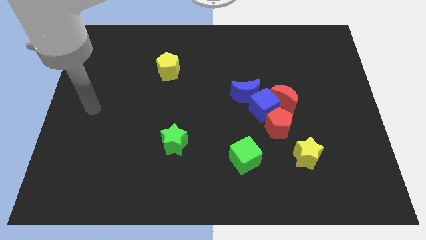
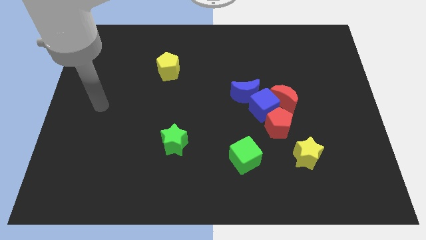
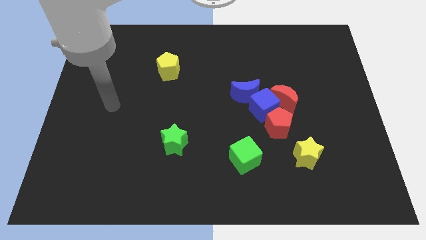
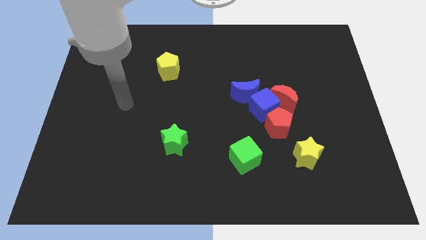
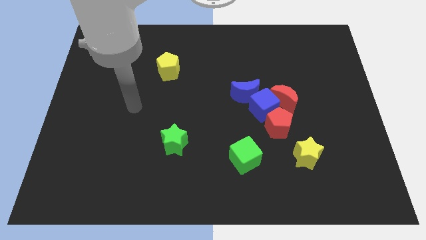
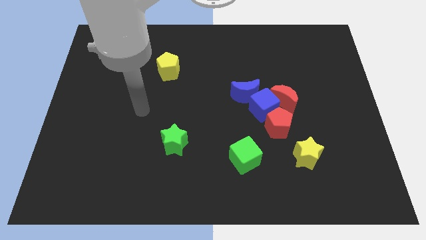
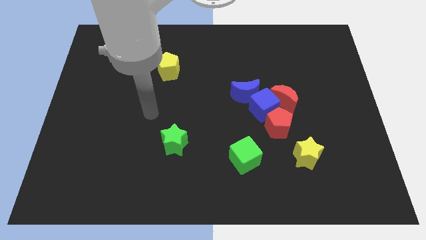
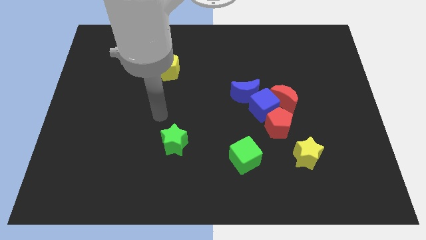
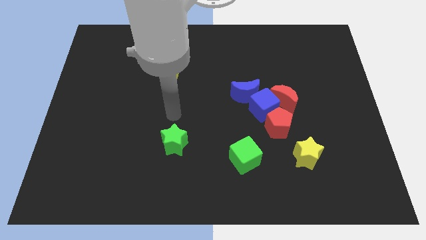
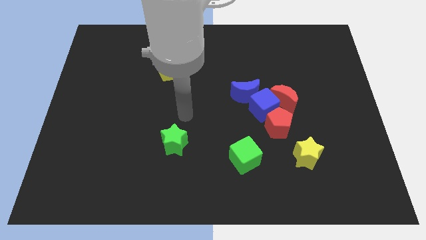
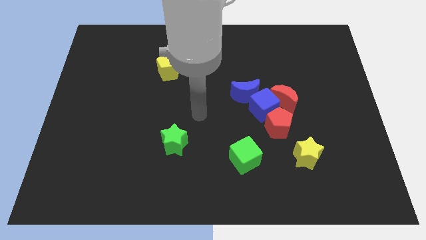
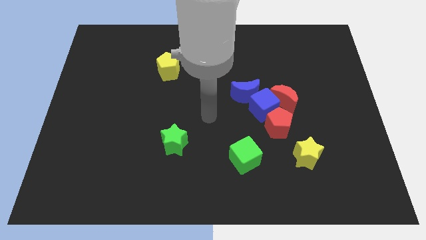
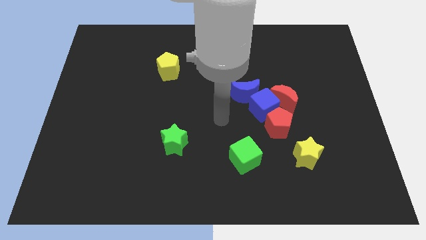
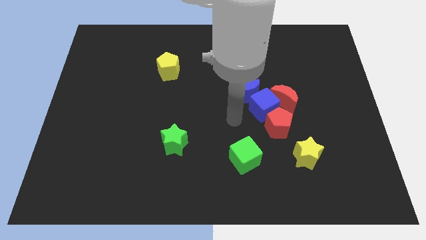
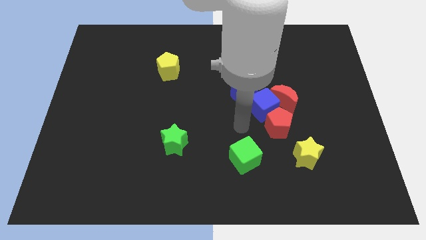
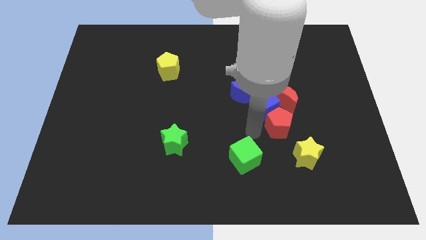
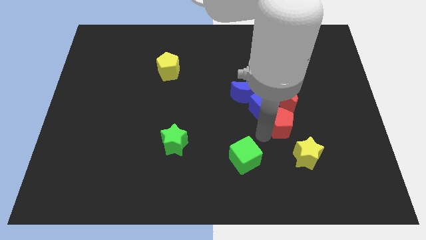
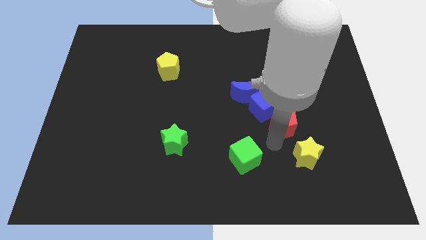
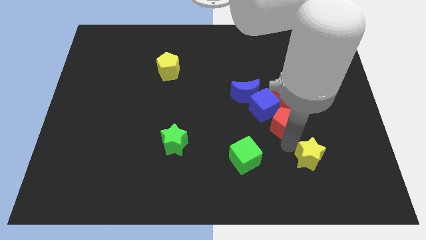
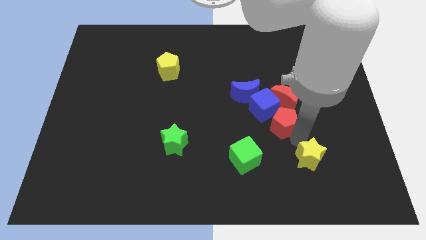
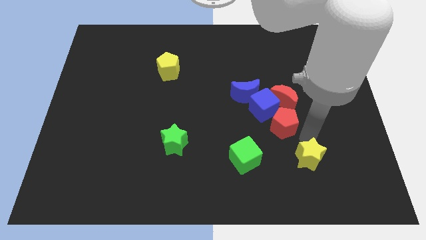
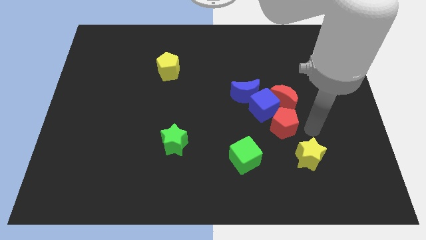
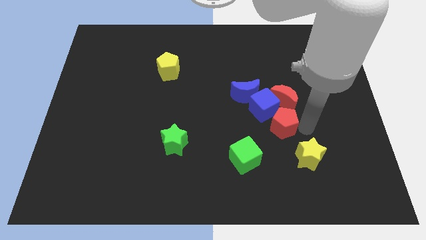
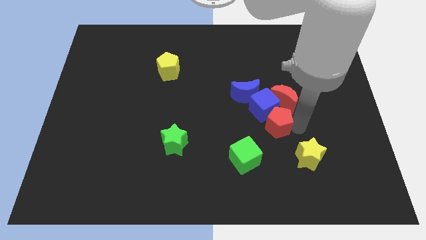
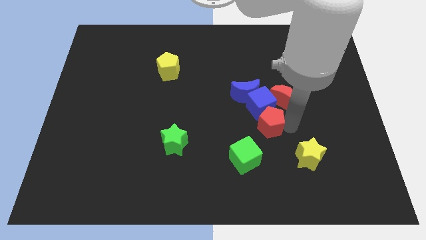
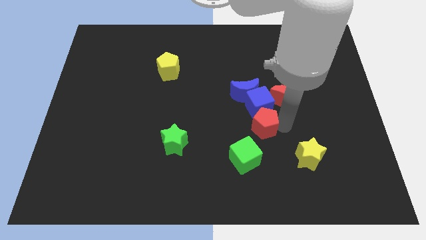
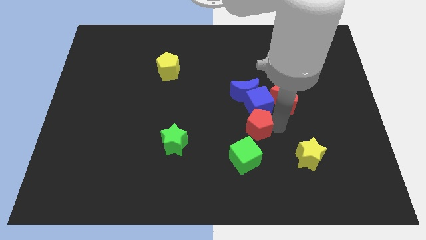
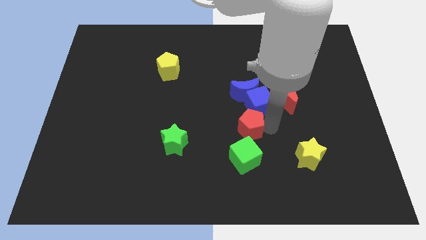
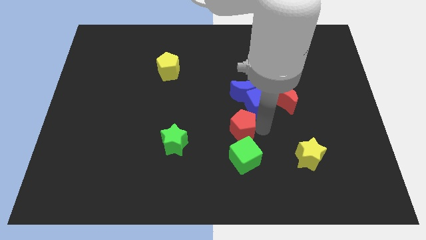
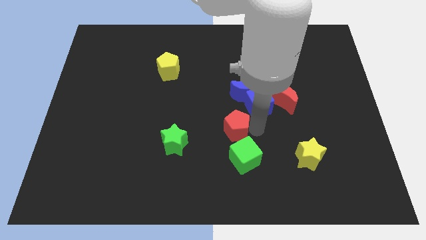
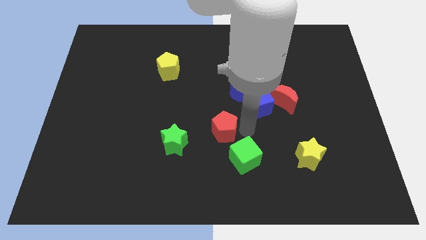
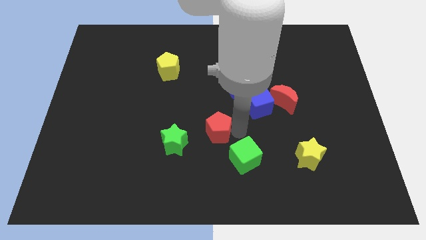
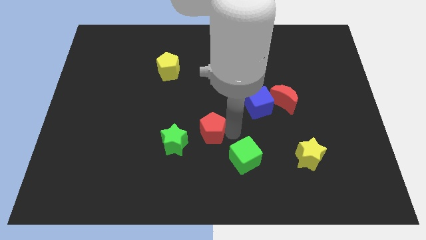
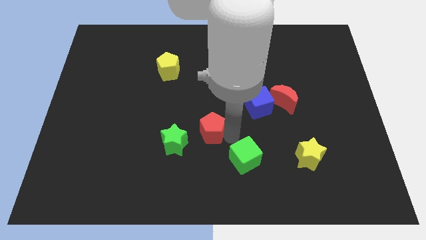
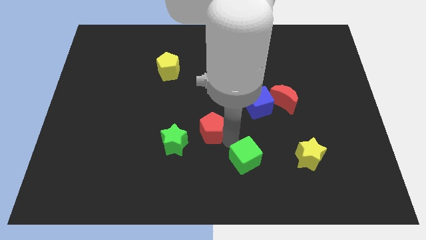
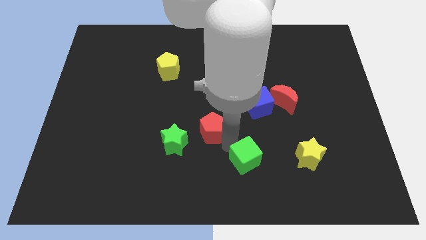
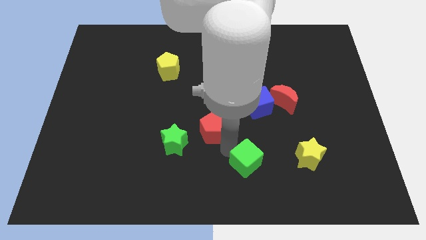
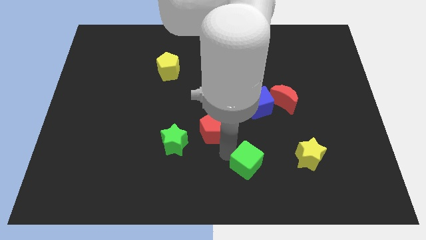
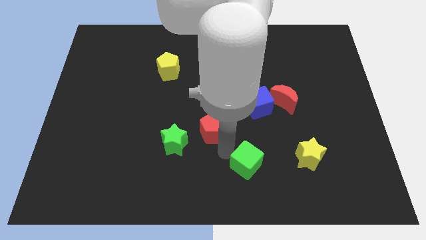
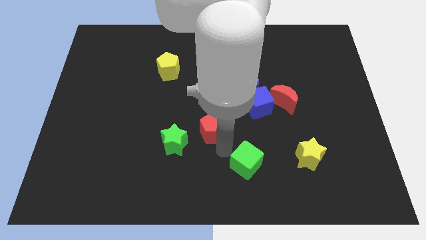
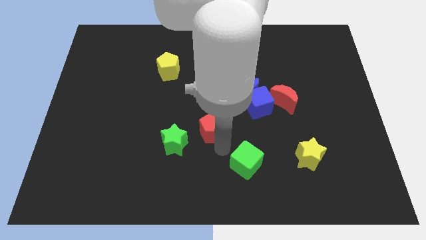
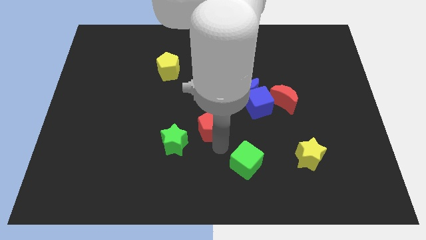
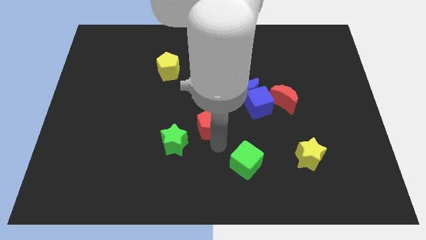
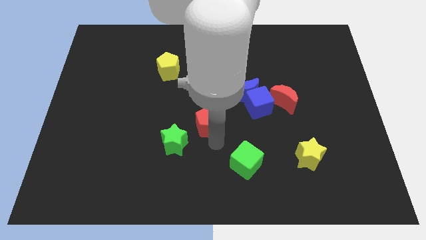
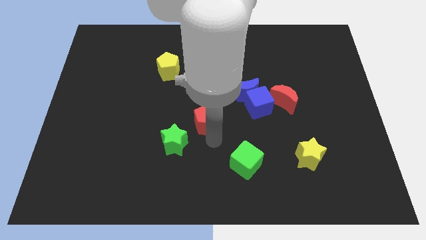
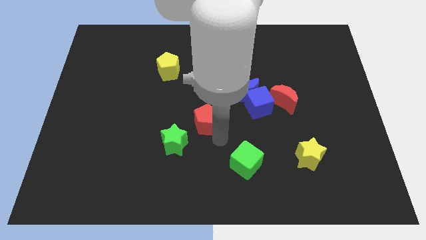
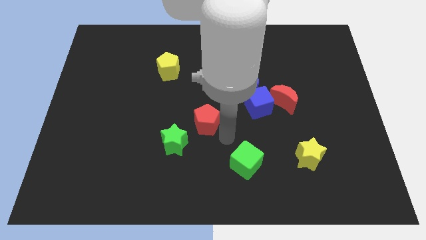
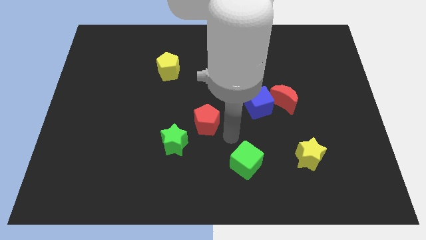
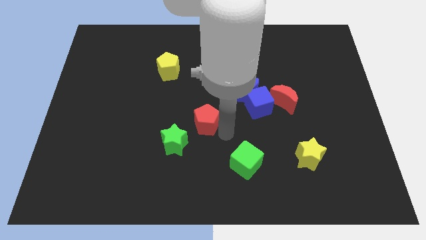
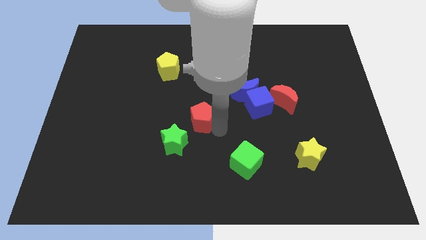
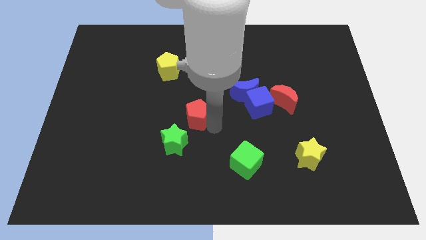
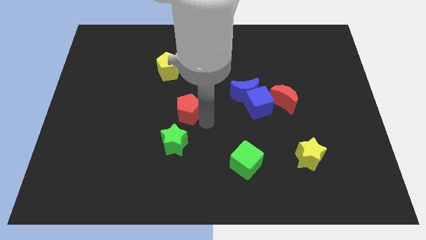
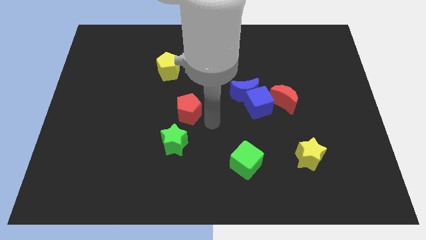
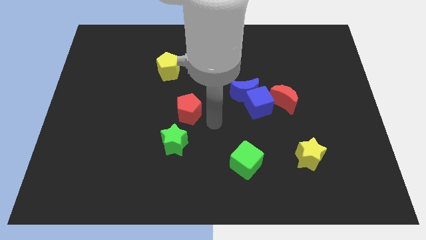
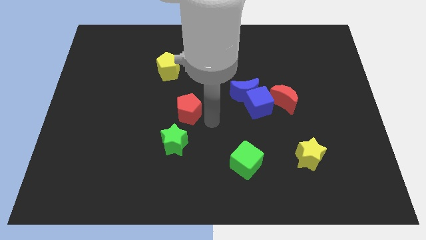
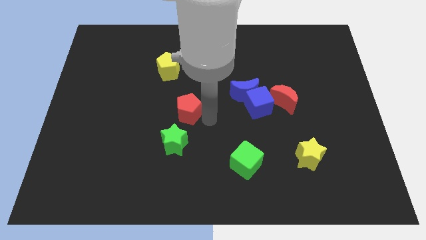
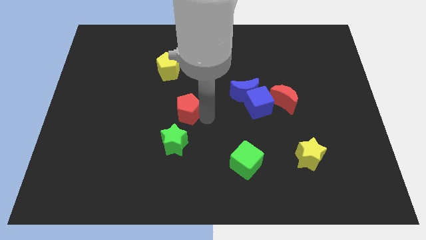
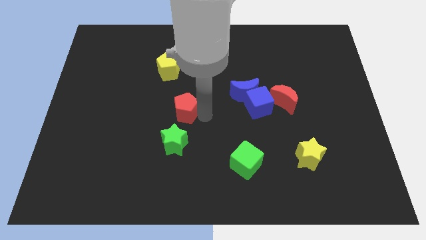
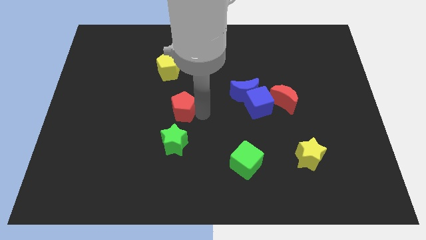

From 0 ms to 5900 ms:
put the red pentagon to the bottom of the yellow pentagon

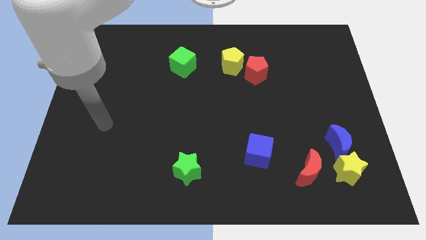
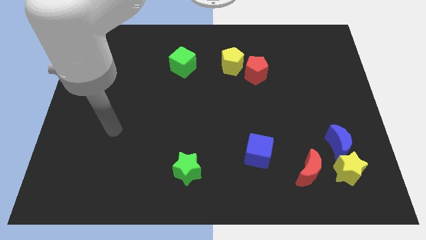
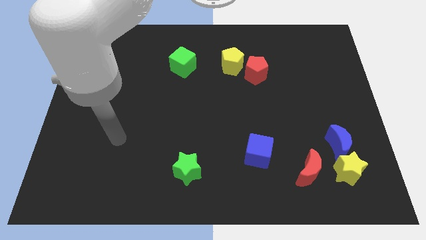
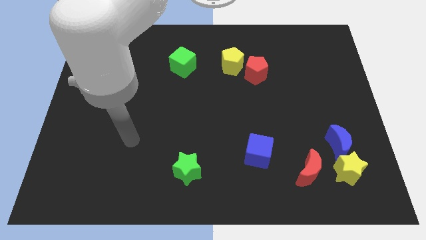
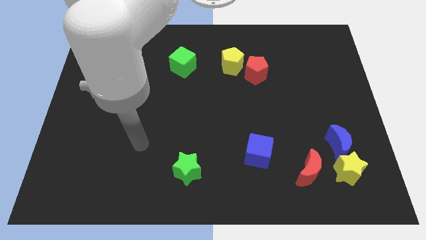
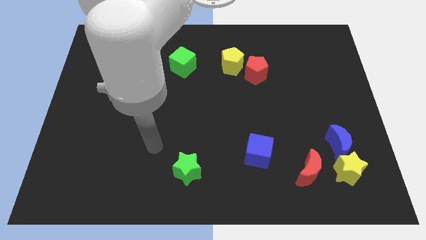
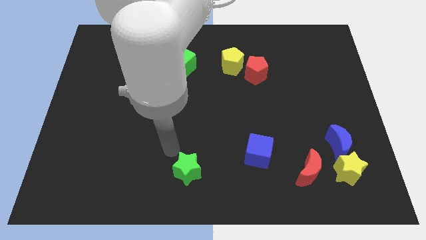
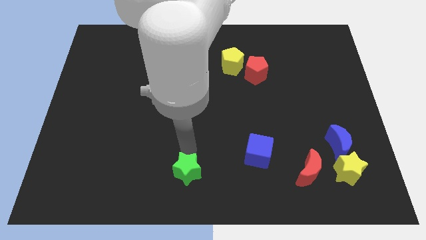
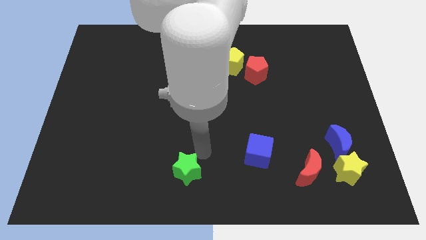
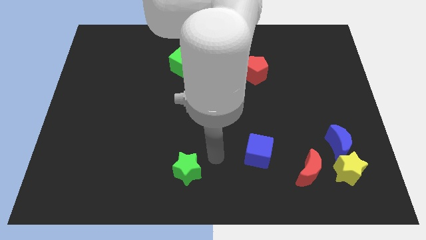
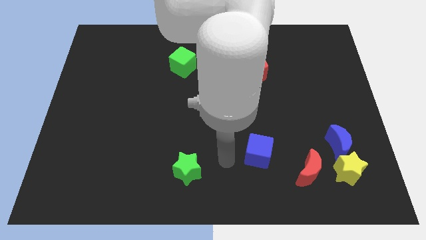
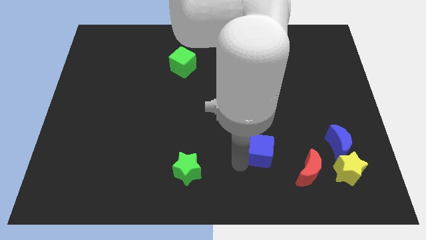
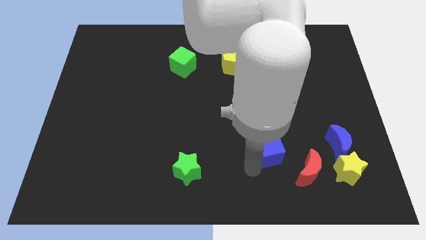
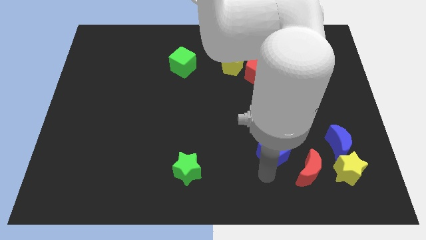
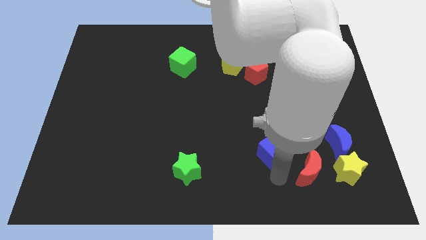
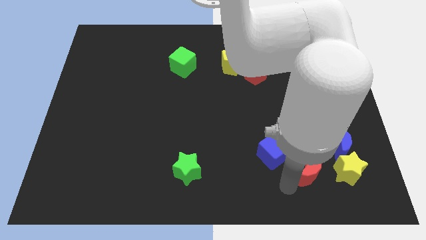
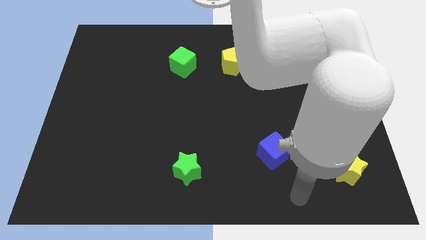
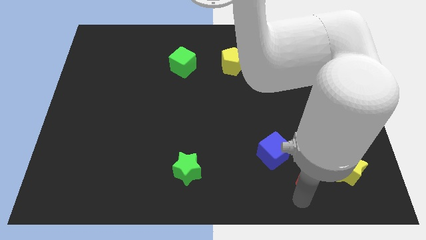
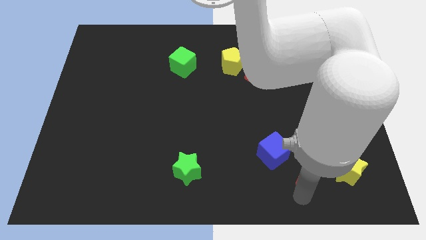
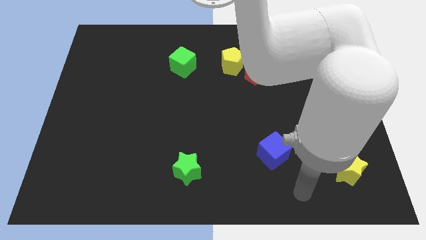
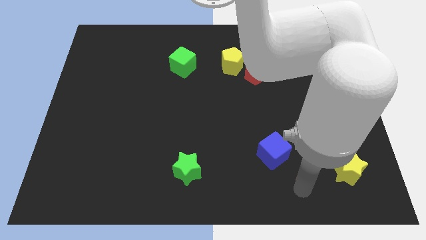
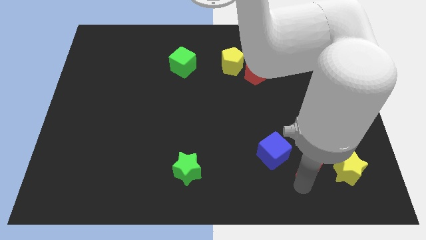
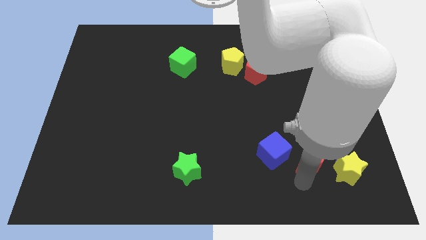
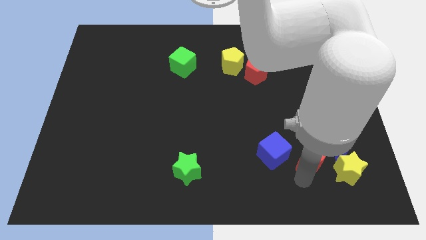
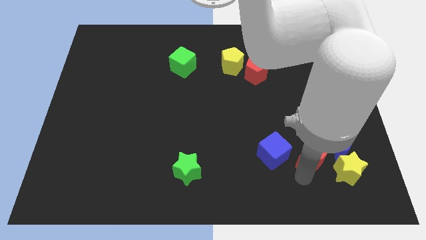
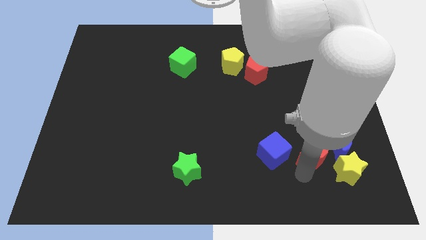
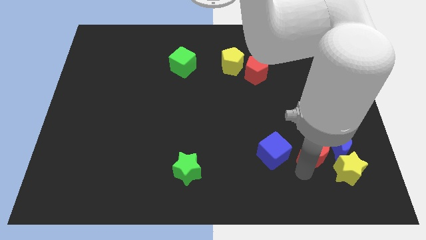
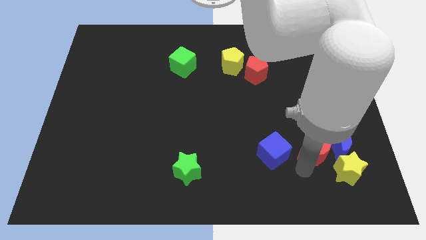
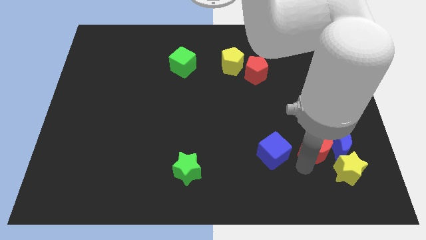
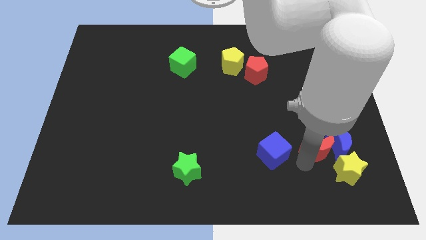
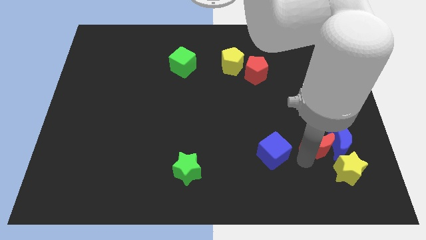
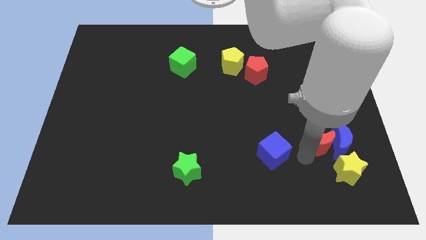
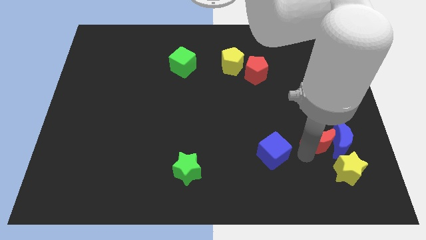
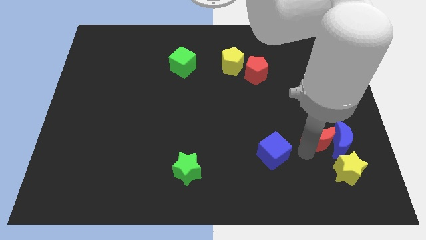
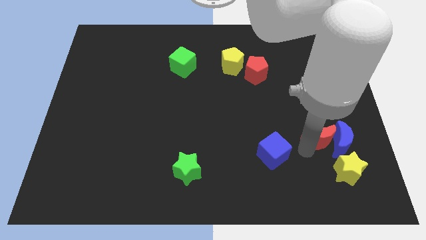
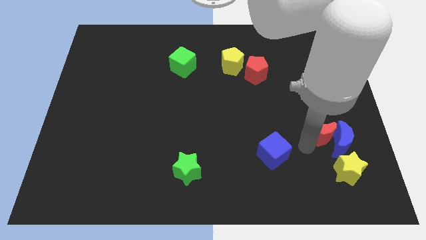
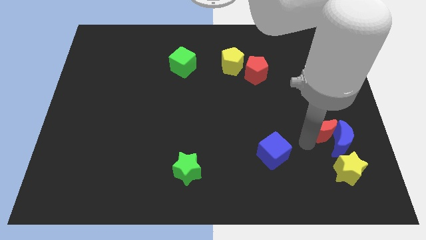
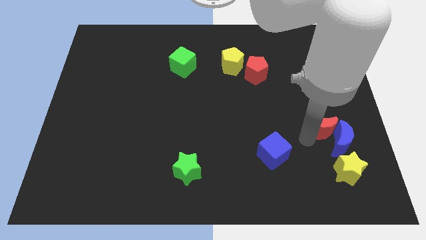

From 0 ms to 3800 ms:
slide the red moon to the top of the blue moon
